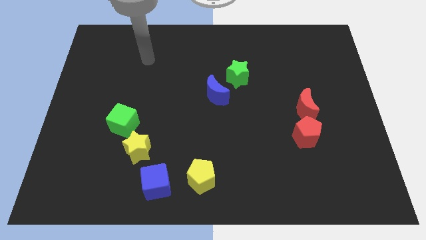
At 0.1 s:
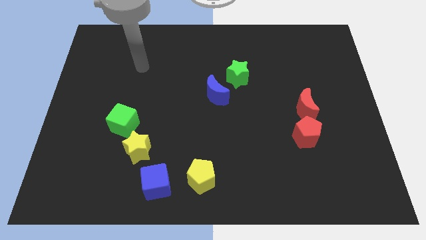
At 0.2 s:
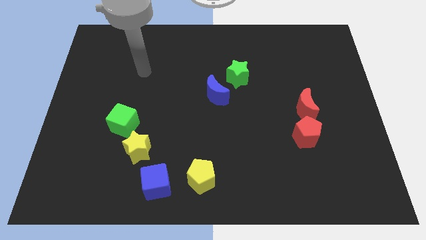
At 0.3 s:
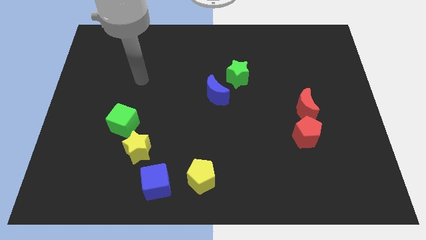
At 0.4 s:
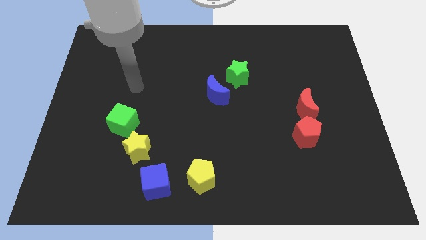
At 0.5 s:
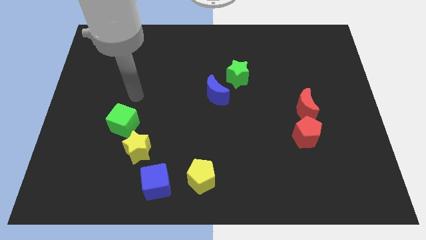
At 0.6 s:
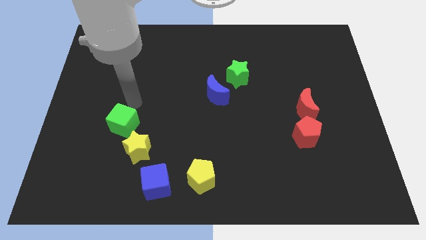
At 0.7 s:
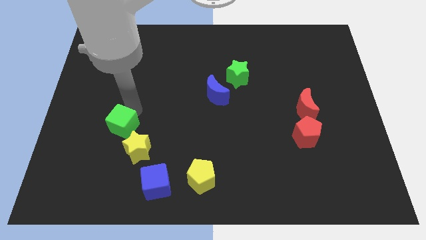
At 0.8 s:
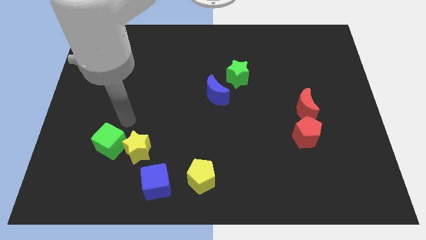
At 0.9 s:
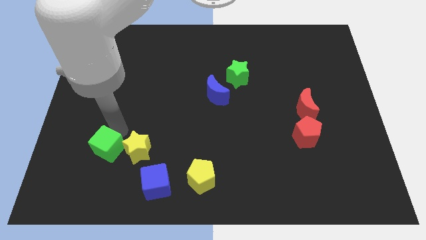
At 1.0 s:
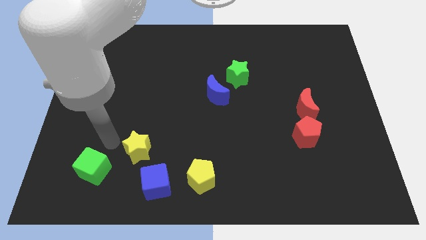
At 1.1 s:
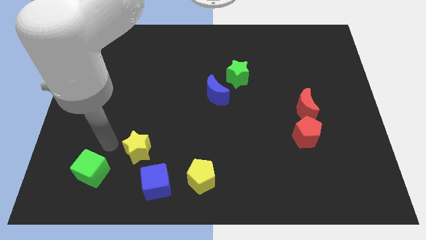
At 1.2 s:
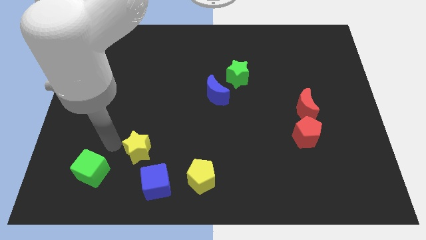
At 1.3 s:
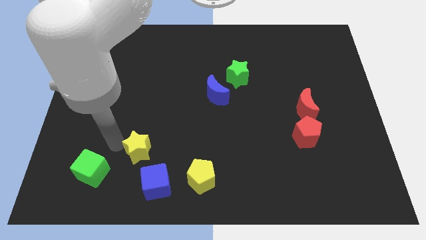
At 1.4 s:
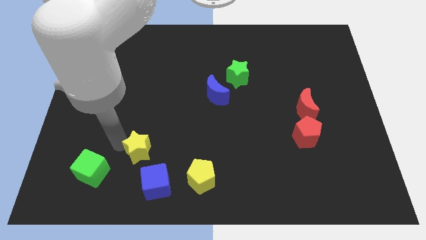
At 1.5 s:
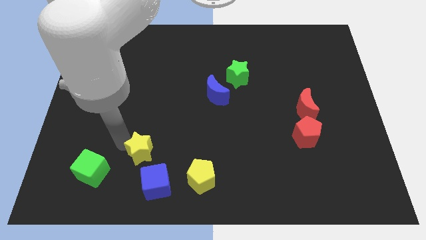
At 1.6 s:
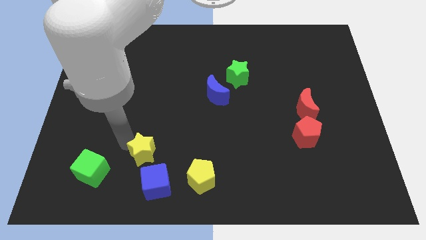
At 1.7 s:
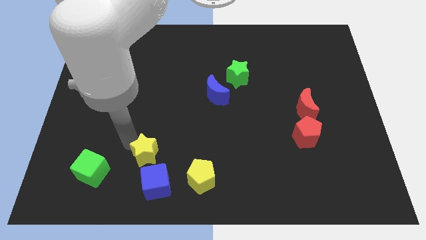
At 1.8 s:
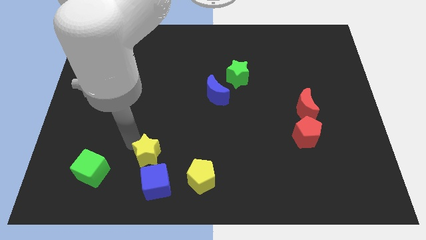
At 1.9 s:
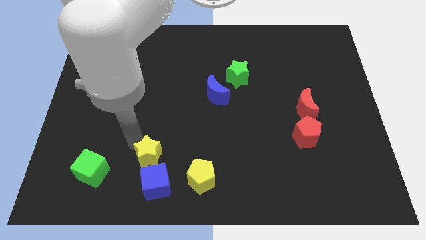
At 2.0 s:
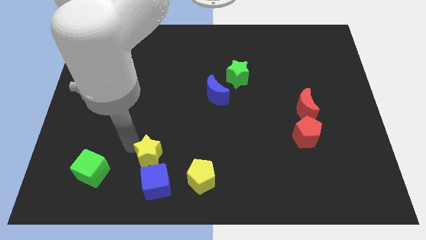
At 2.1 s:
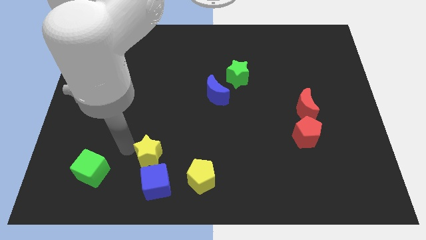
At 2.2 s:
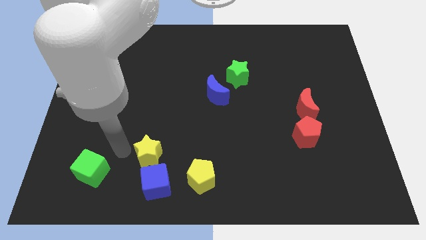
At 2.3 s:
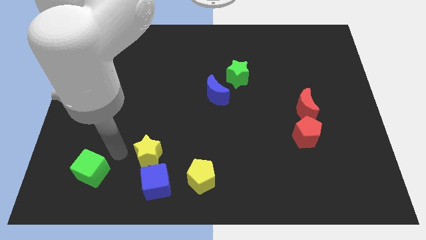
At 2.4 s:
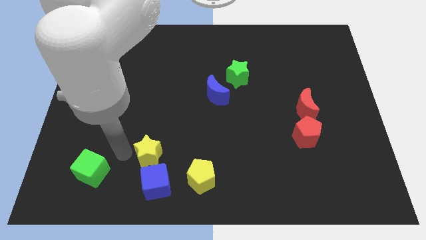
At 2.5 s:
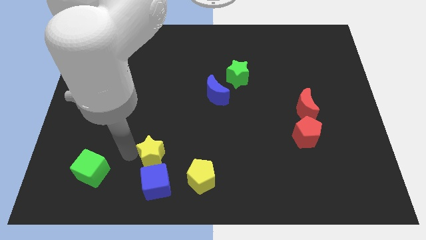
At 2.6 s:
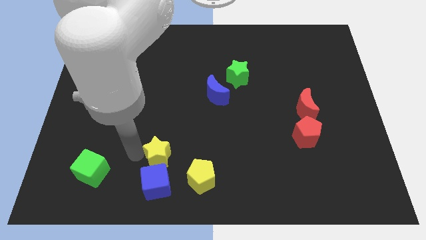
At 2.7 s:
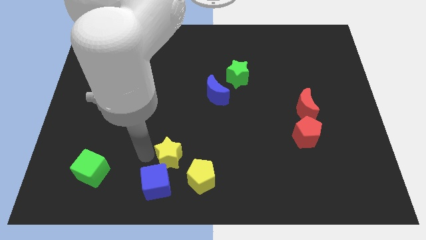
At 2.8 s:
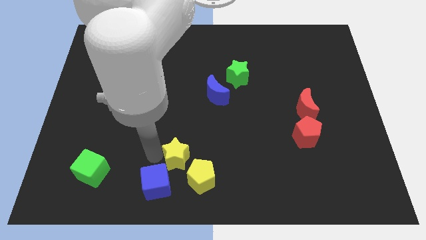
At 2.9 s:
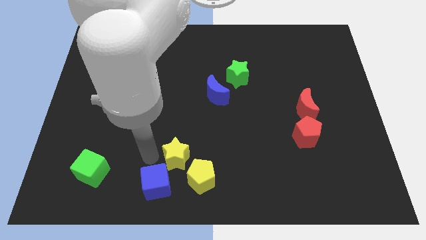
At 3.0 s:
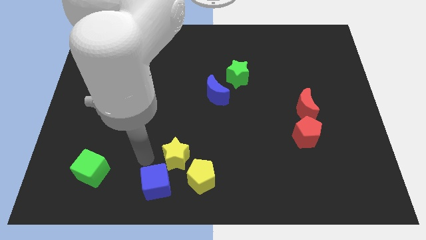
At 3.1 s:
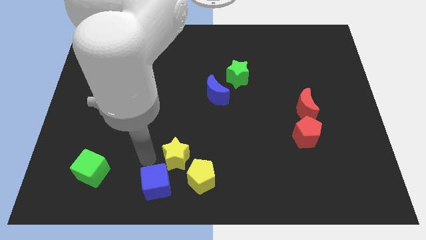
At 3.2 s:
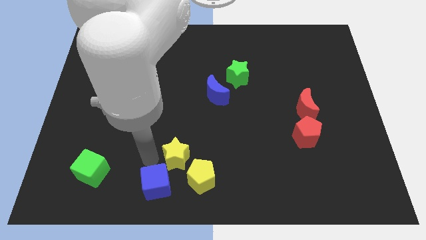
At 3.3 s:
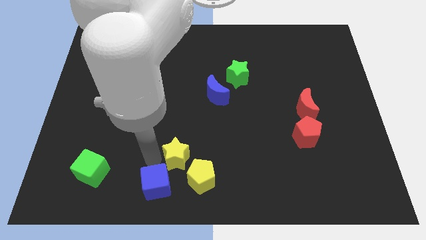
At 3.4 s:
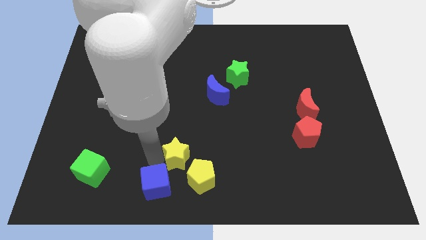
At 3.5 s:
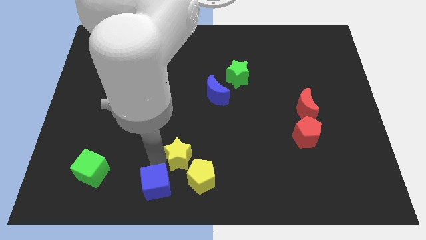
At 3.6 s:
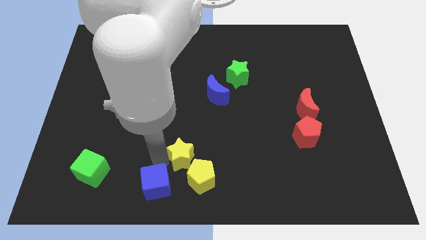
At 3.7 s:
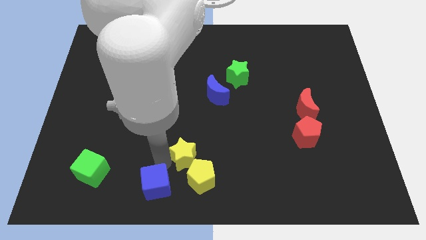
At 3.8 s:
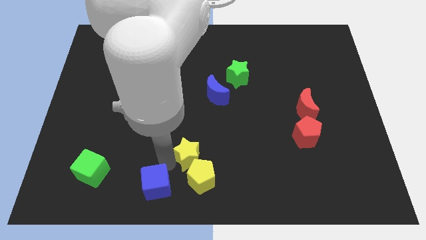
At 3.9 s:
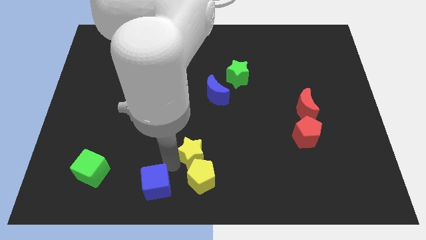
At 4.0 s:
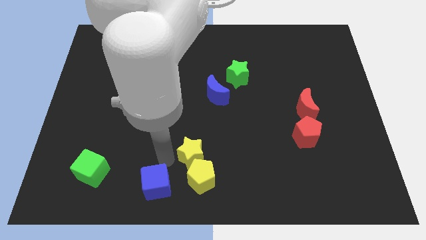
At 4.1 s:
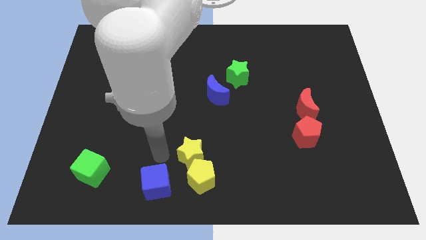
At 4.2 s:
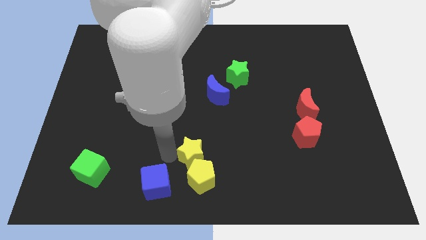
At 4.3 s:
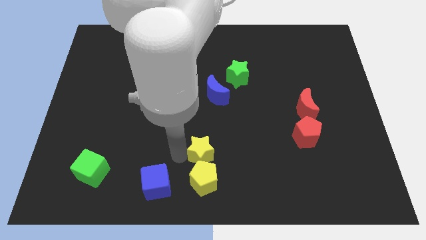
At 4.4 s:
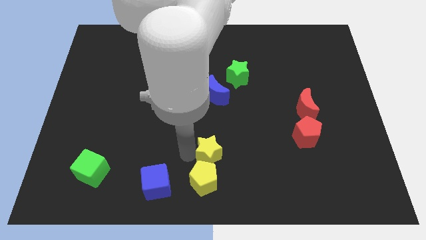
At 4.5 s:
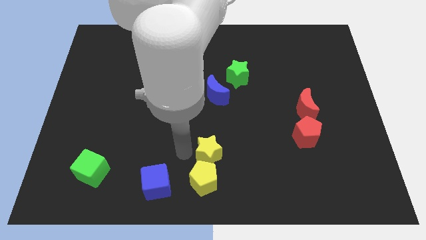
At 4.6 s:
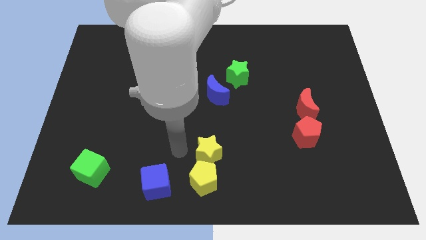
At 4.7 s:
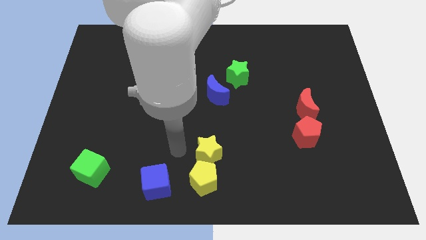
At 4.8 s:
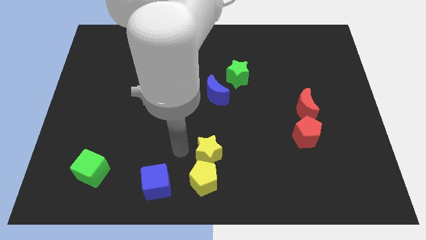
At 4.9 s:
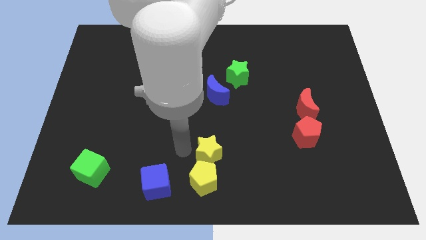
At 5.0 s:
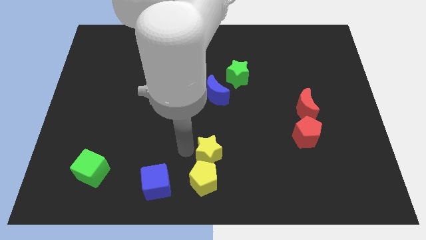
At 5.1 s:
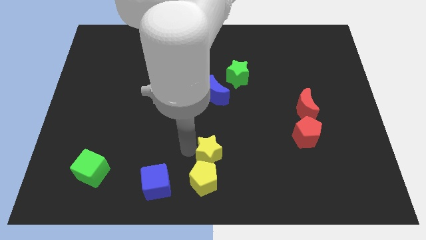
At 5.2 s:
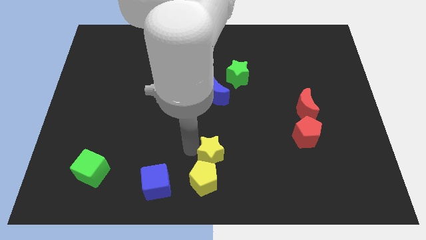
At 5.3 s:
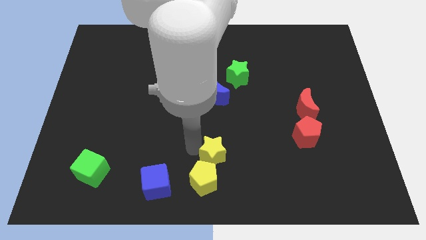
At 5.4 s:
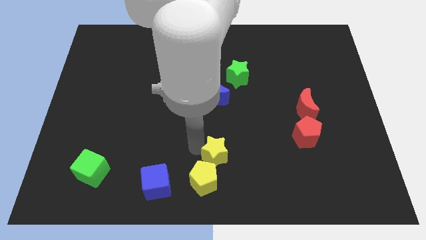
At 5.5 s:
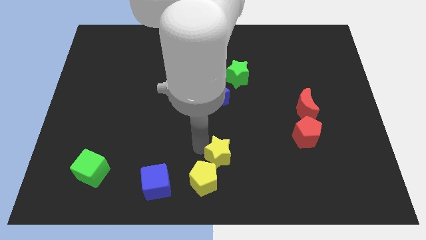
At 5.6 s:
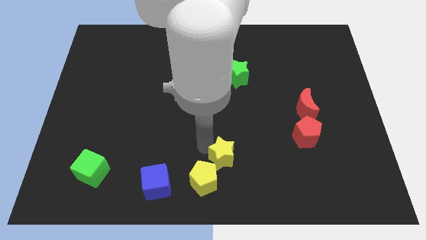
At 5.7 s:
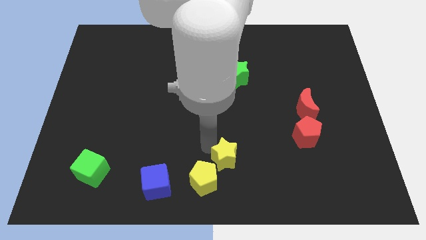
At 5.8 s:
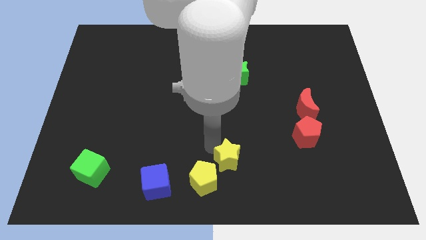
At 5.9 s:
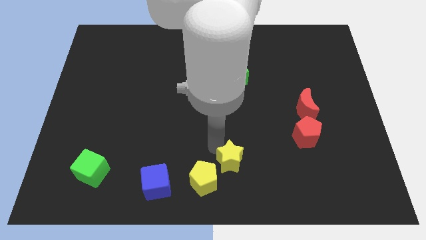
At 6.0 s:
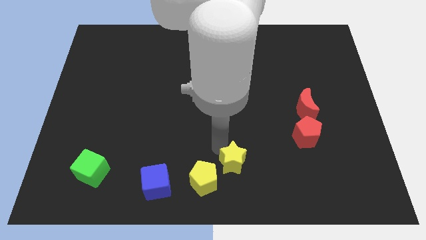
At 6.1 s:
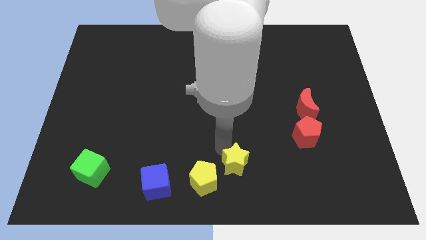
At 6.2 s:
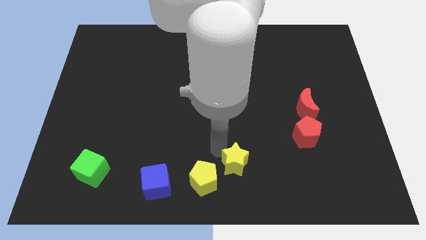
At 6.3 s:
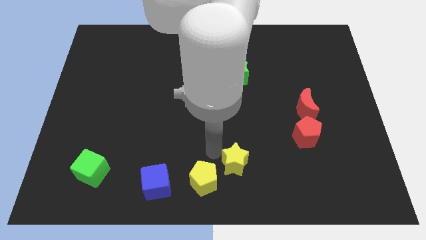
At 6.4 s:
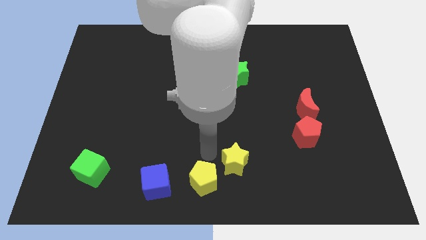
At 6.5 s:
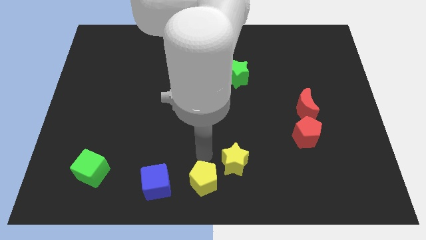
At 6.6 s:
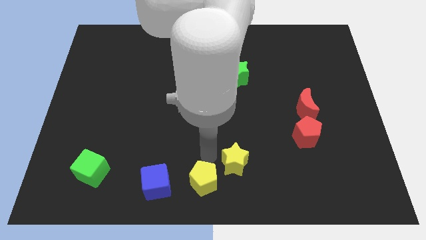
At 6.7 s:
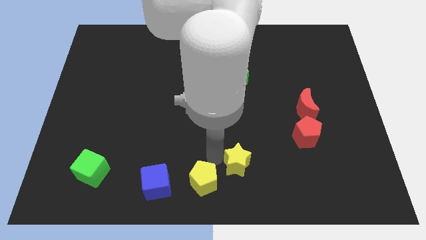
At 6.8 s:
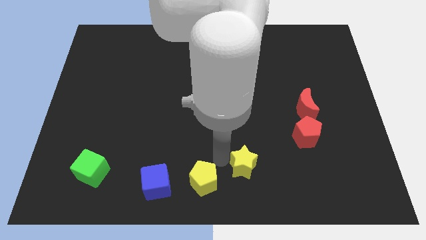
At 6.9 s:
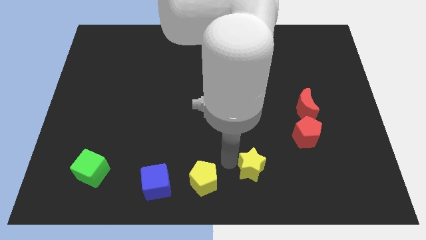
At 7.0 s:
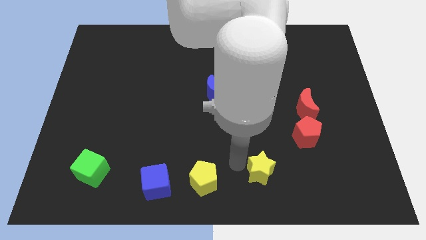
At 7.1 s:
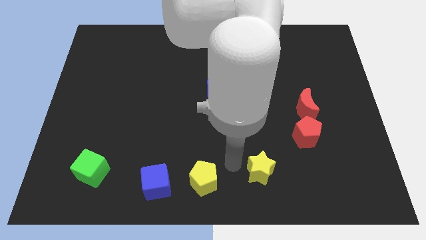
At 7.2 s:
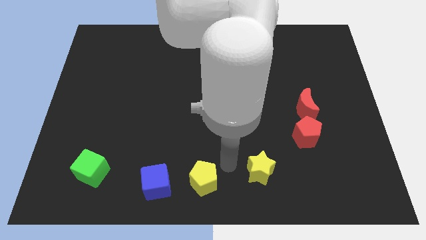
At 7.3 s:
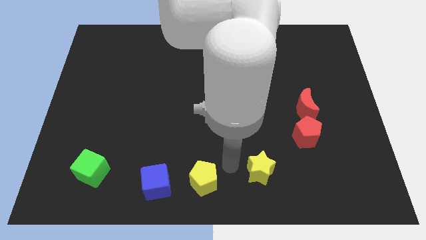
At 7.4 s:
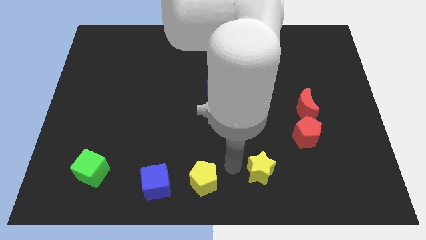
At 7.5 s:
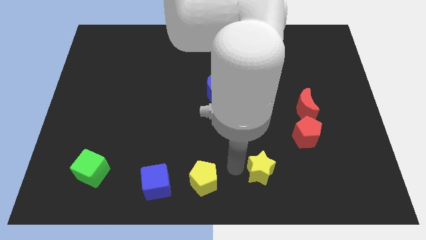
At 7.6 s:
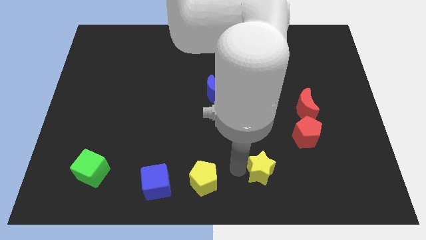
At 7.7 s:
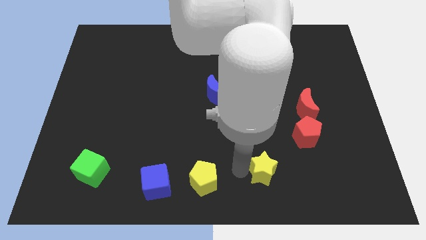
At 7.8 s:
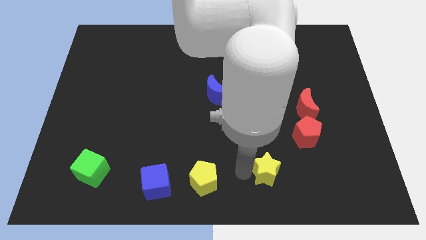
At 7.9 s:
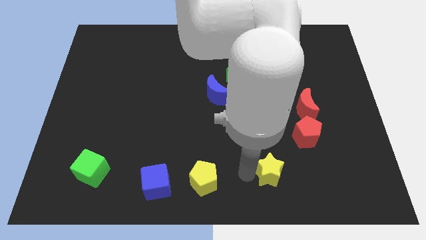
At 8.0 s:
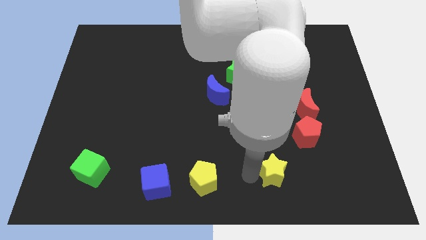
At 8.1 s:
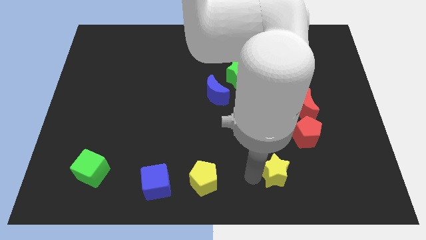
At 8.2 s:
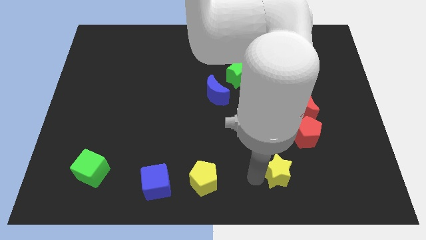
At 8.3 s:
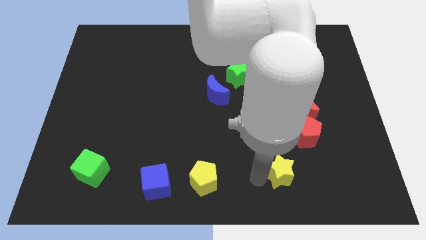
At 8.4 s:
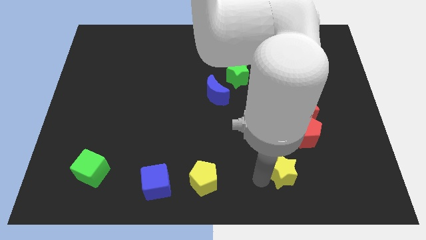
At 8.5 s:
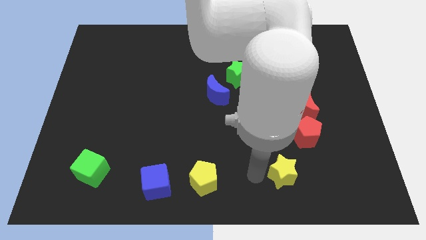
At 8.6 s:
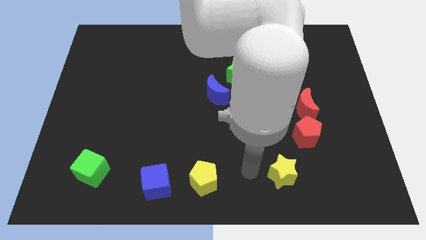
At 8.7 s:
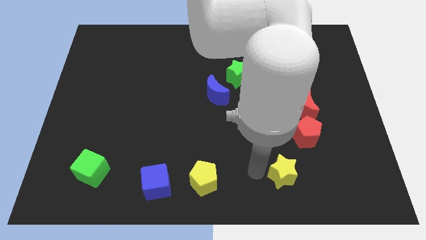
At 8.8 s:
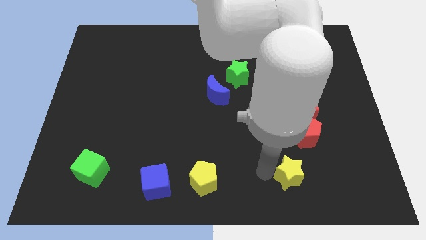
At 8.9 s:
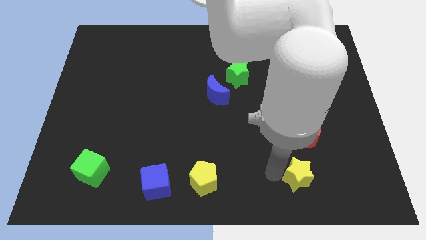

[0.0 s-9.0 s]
put the yellow star below the red pentagon
